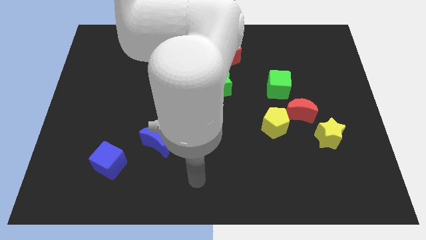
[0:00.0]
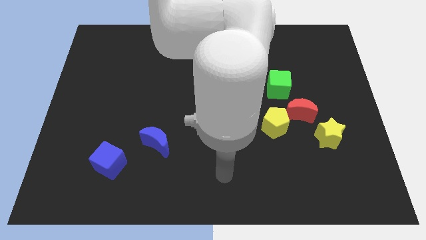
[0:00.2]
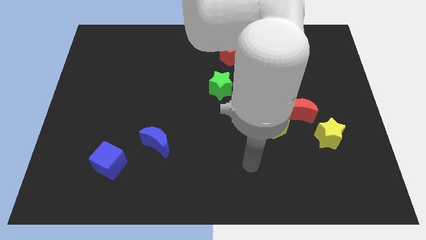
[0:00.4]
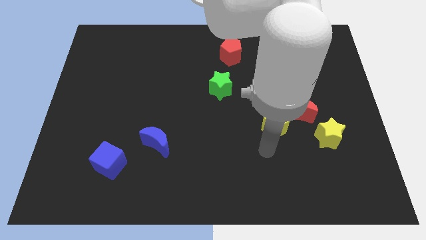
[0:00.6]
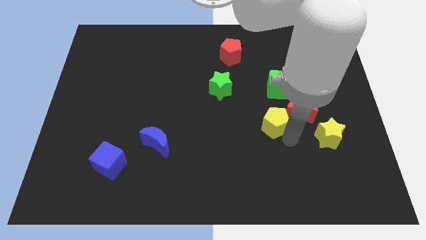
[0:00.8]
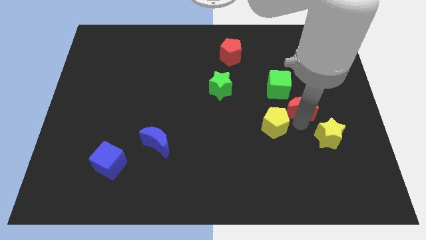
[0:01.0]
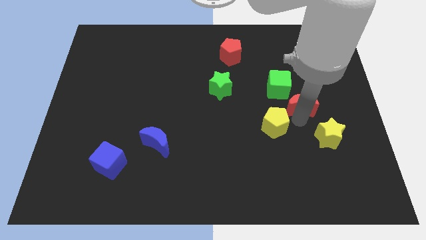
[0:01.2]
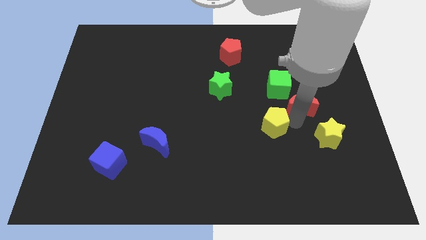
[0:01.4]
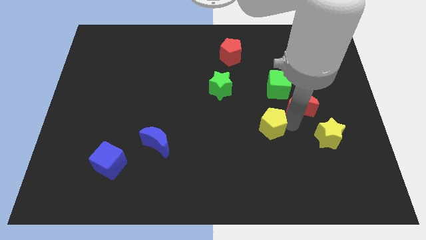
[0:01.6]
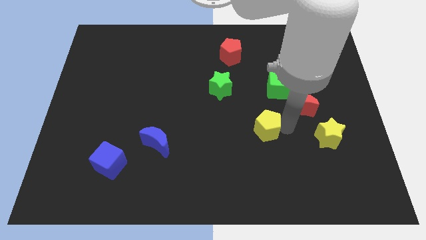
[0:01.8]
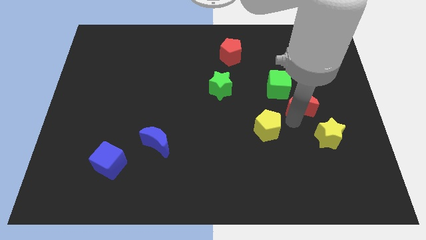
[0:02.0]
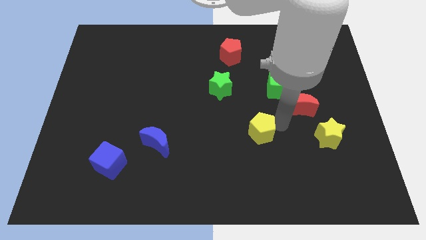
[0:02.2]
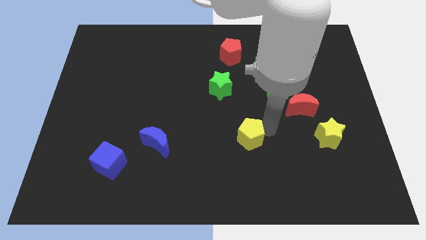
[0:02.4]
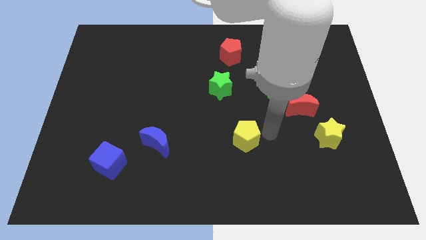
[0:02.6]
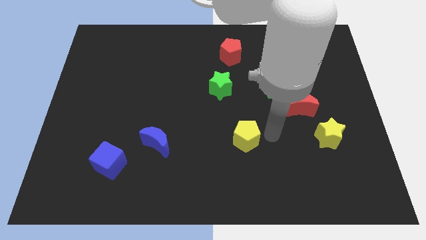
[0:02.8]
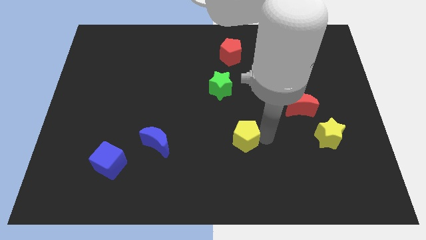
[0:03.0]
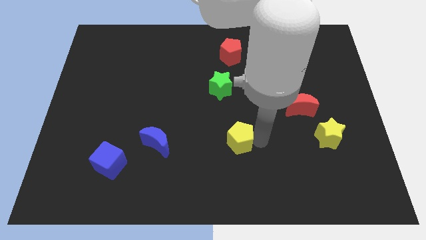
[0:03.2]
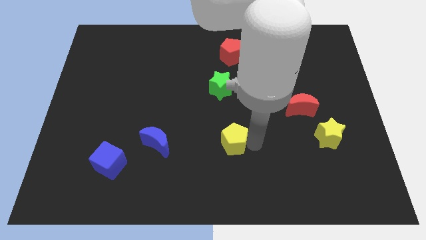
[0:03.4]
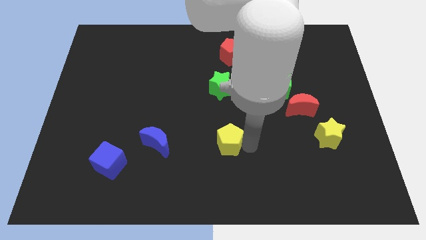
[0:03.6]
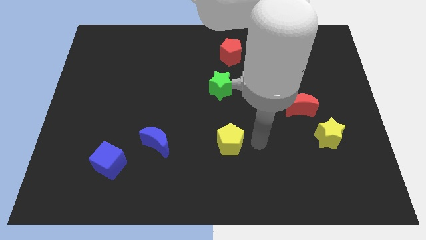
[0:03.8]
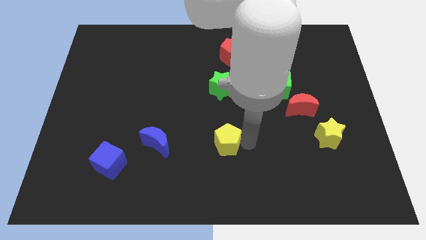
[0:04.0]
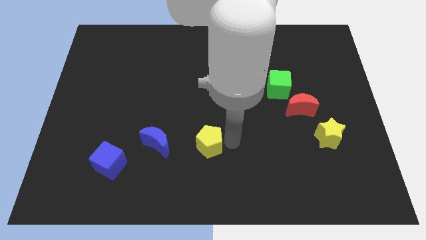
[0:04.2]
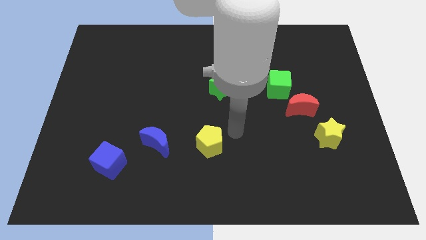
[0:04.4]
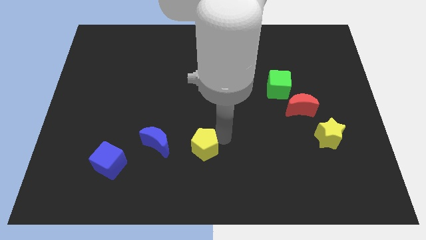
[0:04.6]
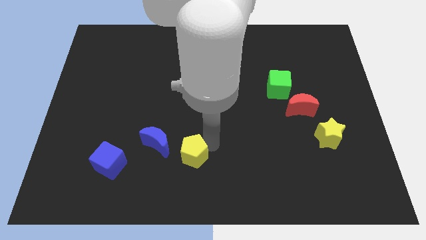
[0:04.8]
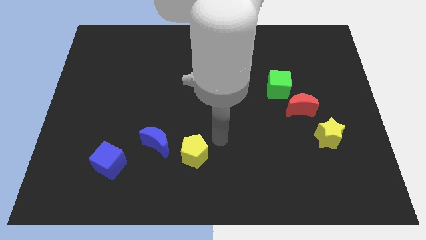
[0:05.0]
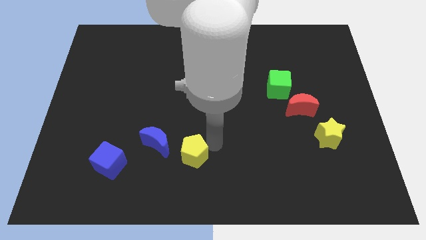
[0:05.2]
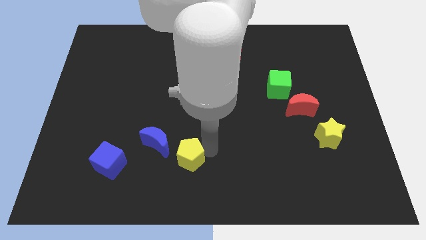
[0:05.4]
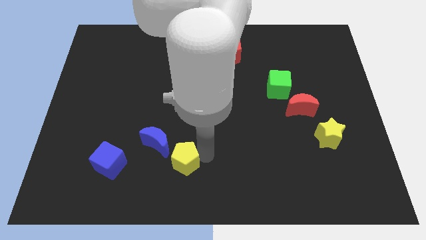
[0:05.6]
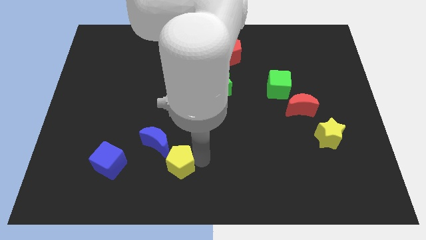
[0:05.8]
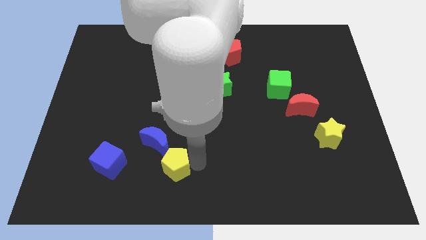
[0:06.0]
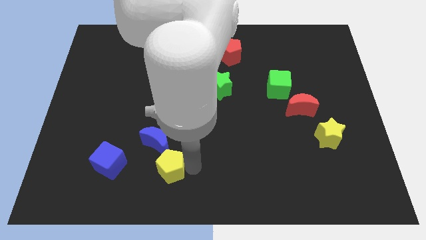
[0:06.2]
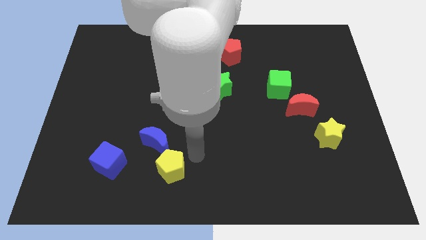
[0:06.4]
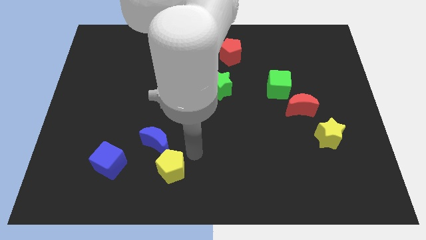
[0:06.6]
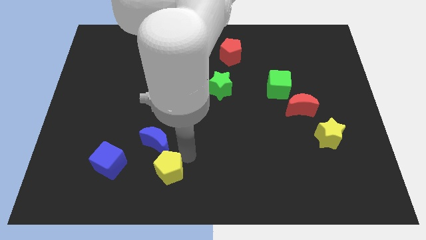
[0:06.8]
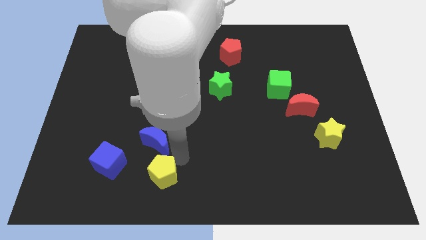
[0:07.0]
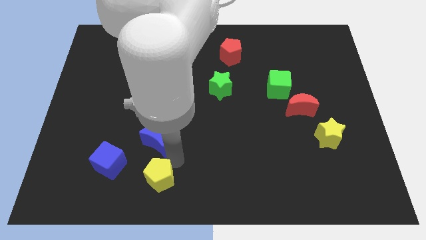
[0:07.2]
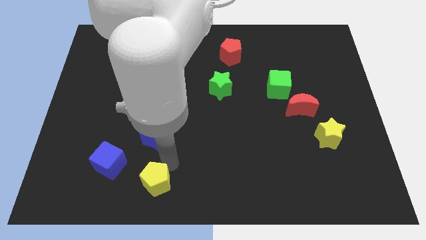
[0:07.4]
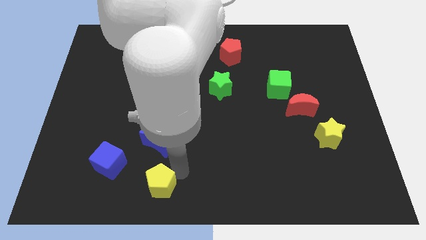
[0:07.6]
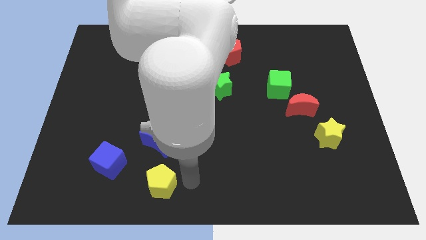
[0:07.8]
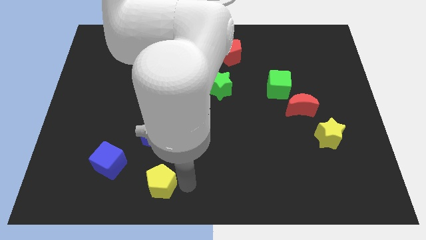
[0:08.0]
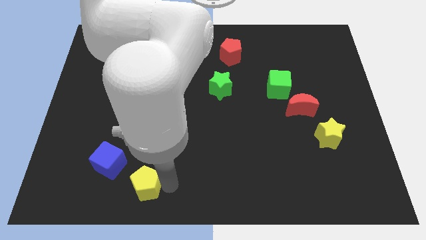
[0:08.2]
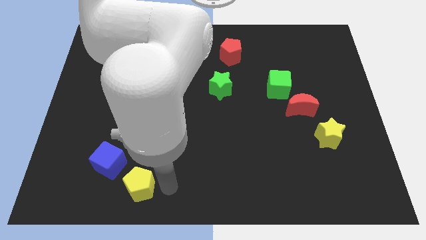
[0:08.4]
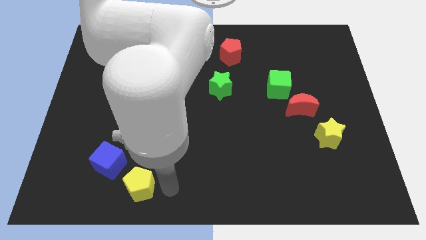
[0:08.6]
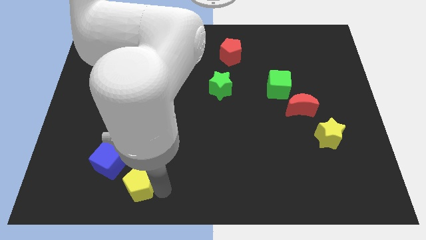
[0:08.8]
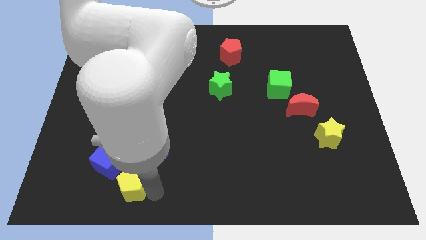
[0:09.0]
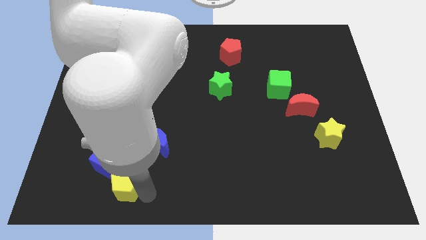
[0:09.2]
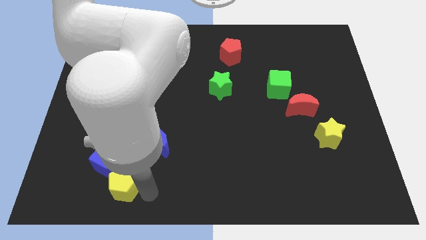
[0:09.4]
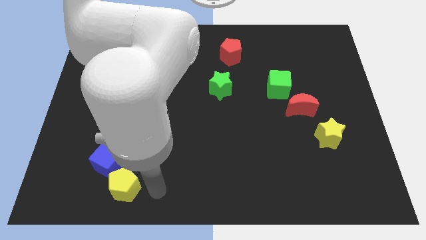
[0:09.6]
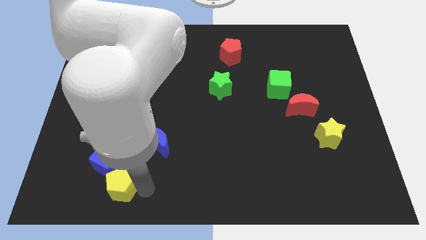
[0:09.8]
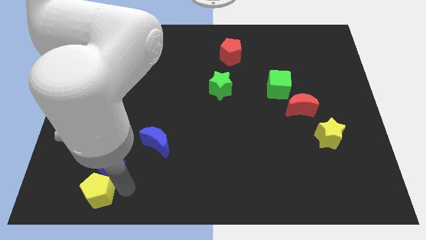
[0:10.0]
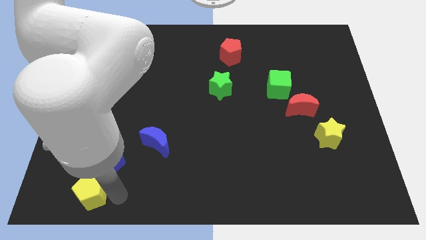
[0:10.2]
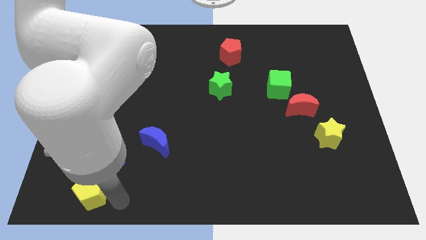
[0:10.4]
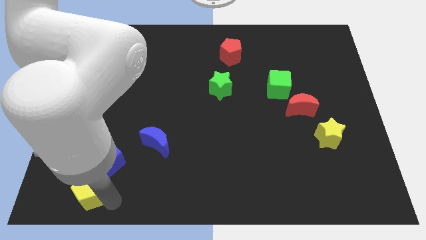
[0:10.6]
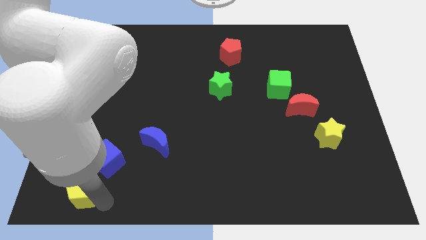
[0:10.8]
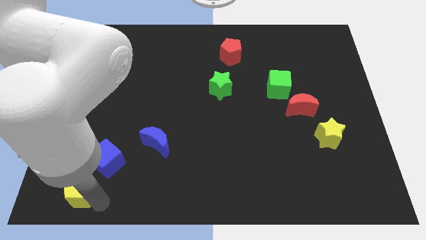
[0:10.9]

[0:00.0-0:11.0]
move the yellow pentagon to the bottom left corner

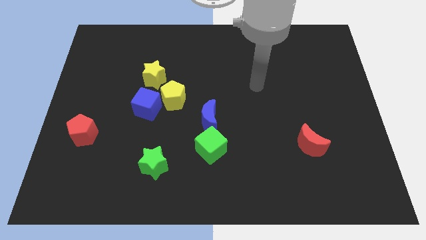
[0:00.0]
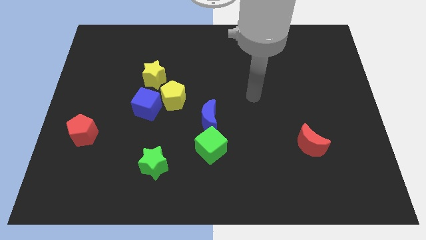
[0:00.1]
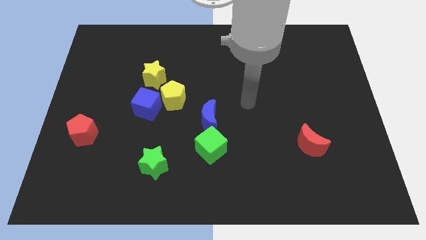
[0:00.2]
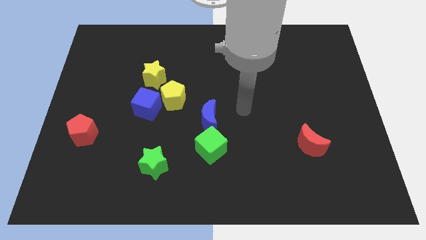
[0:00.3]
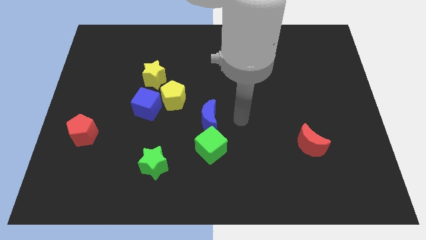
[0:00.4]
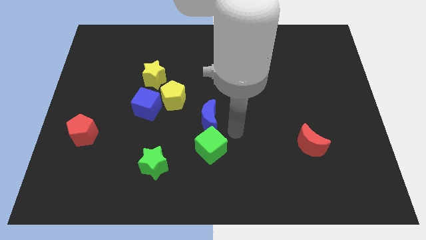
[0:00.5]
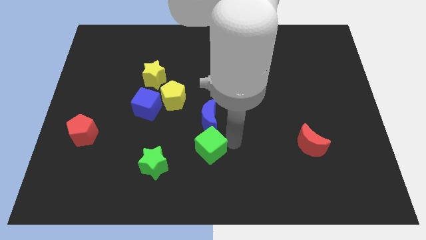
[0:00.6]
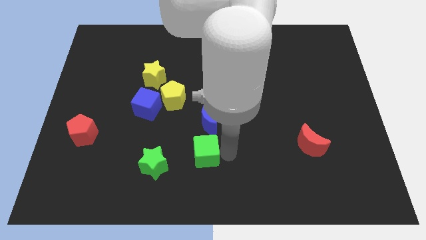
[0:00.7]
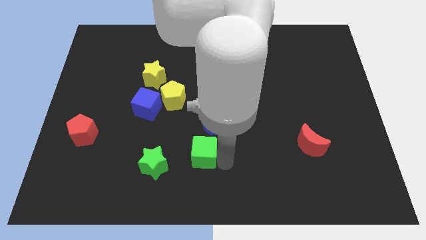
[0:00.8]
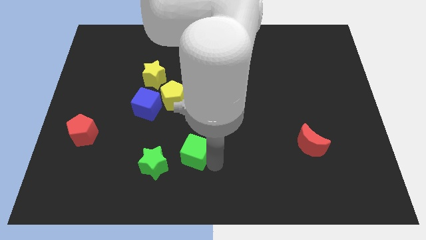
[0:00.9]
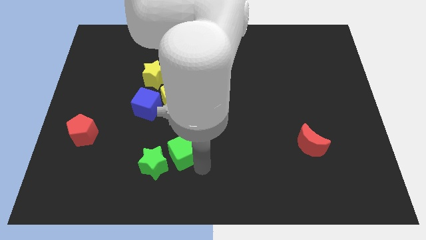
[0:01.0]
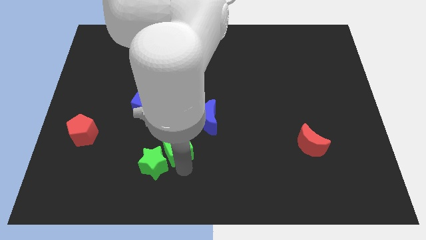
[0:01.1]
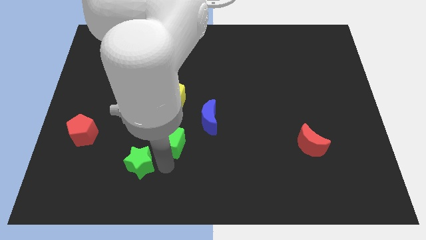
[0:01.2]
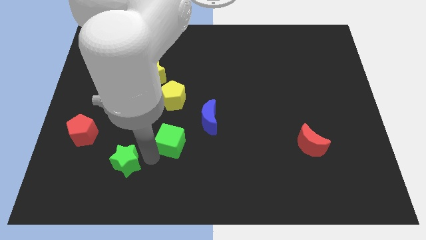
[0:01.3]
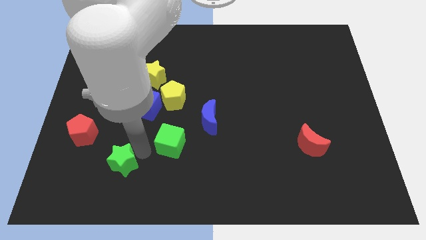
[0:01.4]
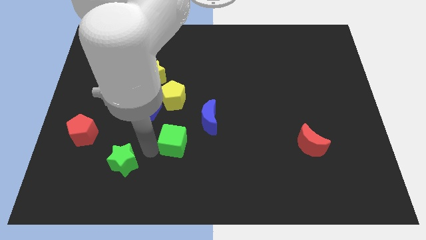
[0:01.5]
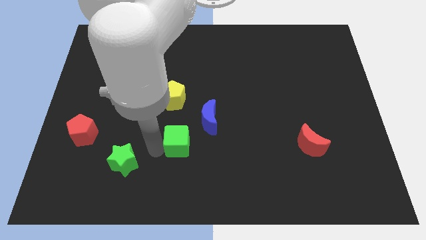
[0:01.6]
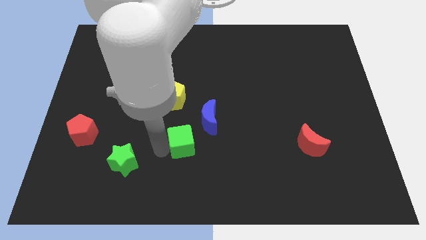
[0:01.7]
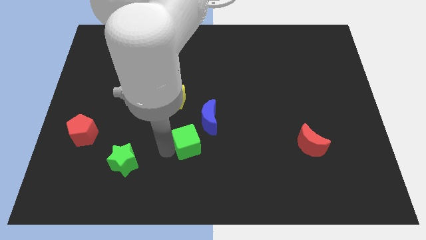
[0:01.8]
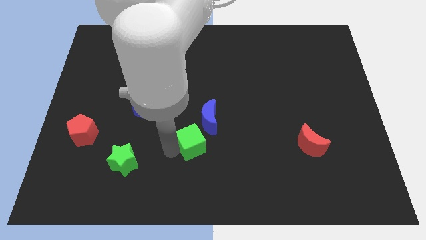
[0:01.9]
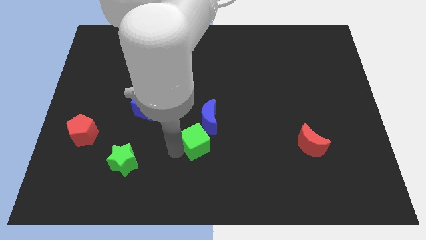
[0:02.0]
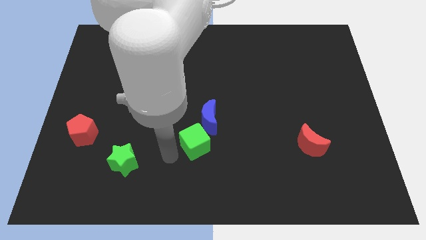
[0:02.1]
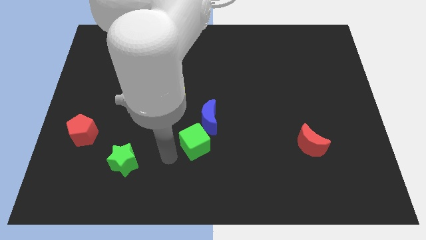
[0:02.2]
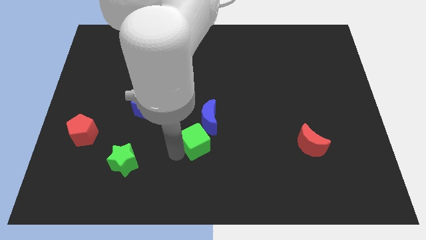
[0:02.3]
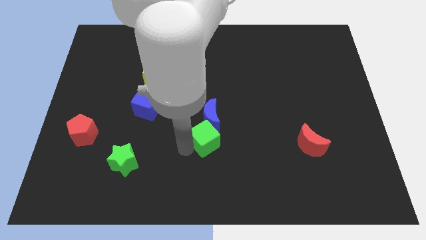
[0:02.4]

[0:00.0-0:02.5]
move the green cube to the center of the board
